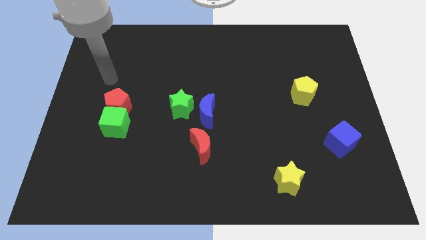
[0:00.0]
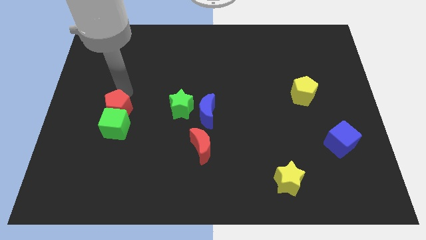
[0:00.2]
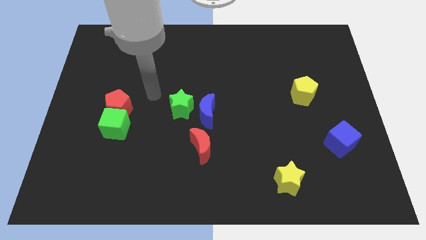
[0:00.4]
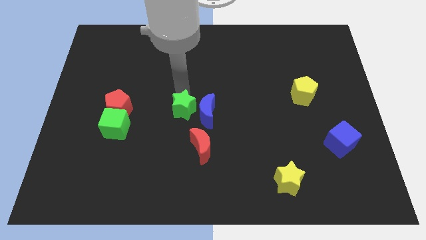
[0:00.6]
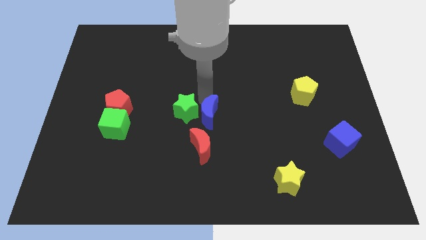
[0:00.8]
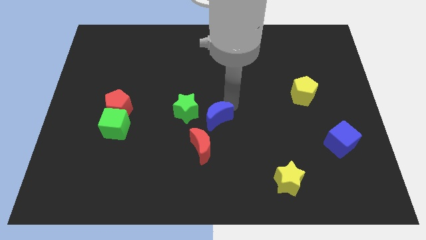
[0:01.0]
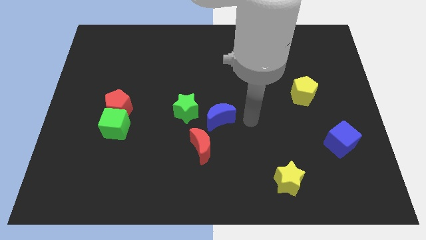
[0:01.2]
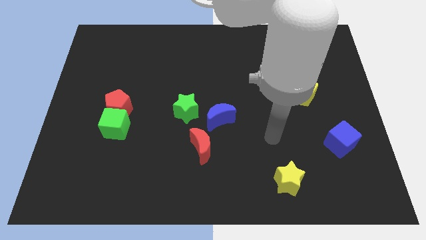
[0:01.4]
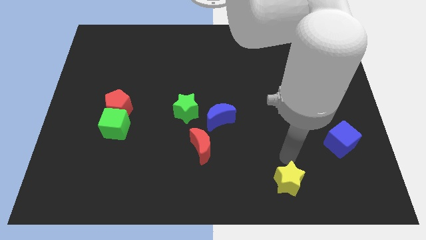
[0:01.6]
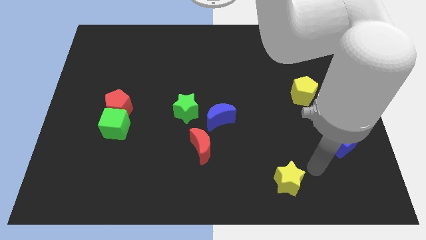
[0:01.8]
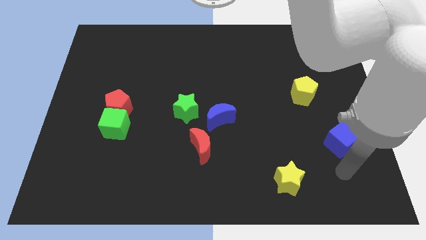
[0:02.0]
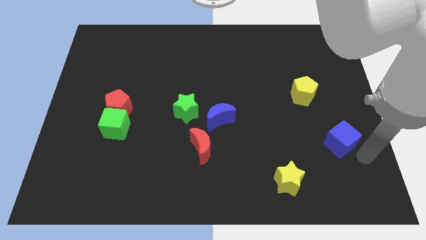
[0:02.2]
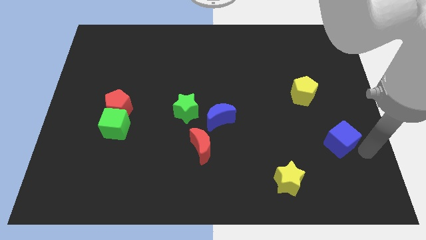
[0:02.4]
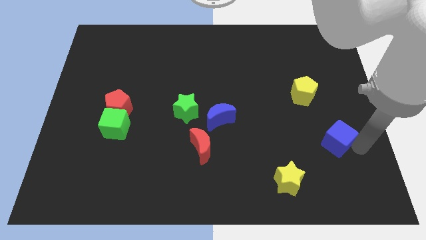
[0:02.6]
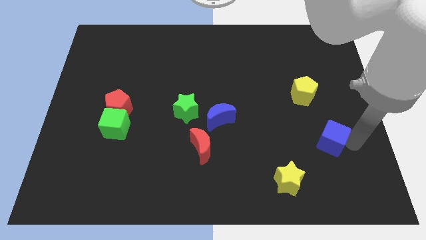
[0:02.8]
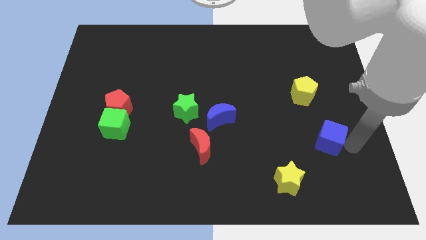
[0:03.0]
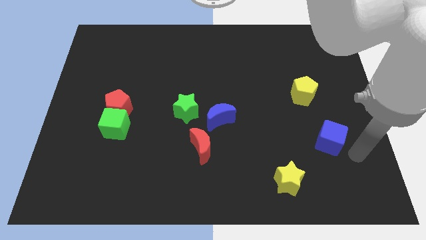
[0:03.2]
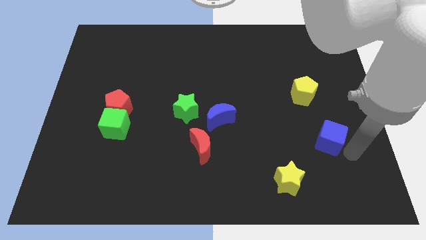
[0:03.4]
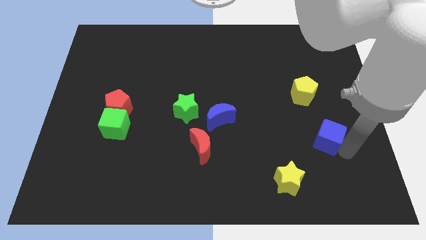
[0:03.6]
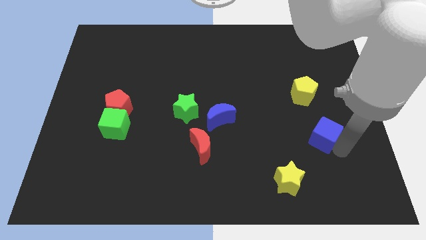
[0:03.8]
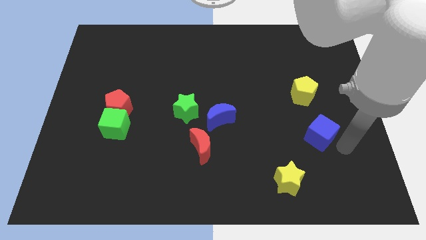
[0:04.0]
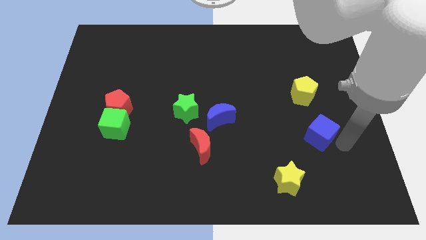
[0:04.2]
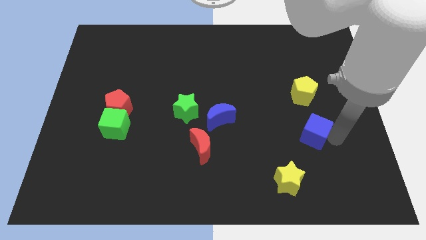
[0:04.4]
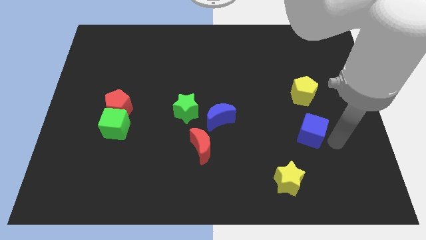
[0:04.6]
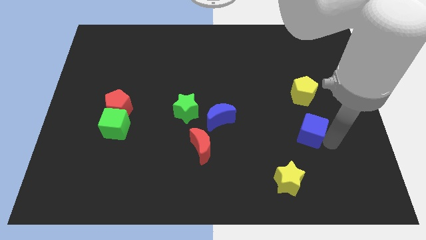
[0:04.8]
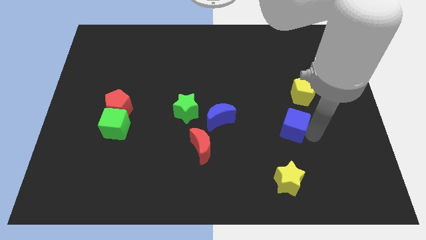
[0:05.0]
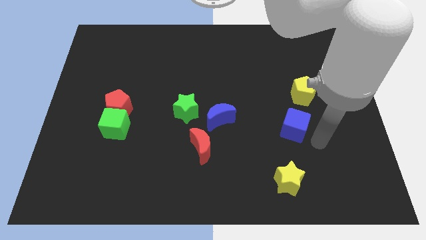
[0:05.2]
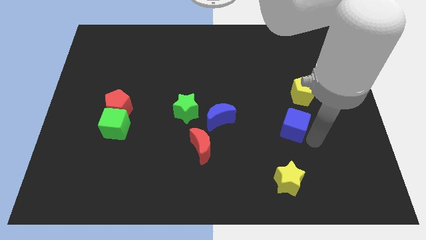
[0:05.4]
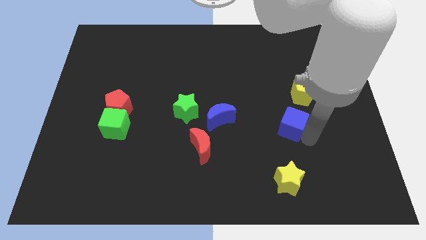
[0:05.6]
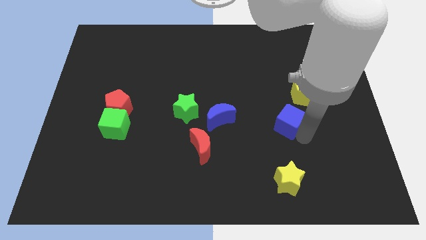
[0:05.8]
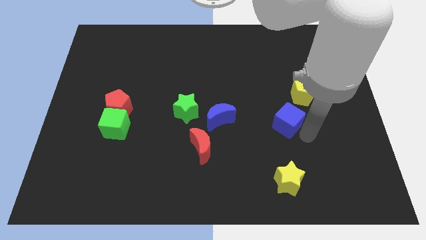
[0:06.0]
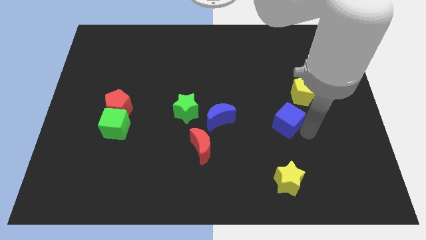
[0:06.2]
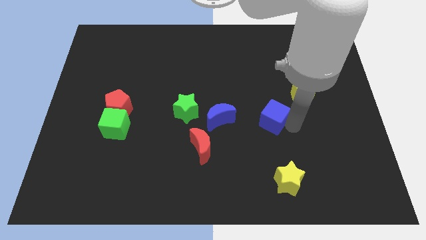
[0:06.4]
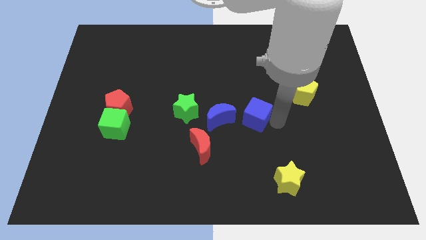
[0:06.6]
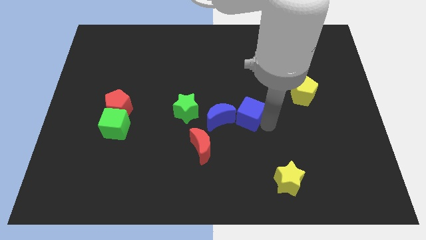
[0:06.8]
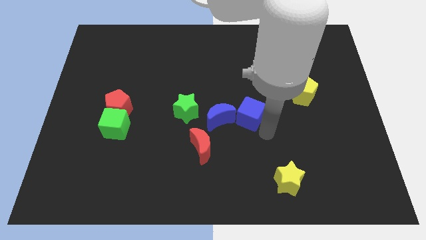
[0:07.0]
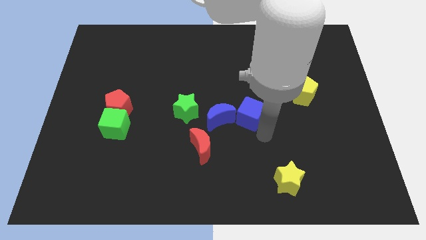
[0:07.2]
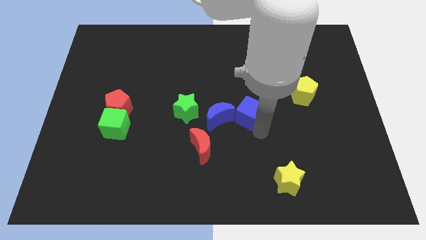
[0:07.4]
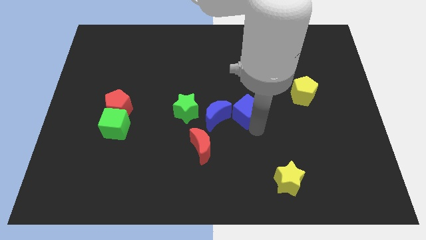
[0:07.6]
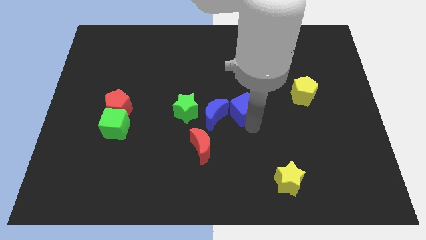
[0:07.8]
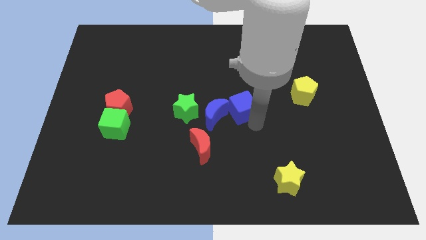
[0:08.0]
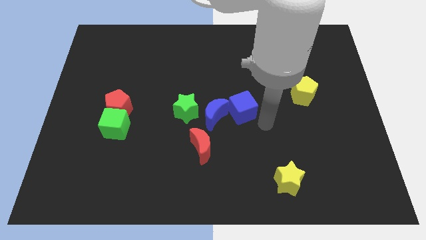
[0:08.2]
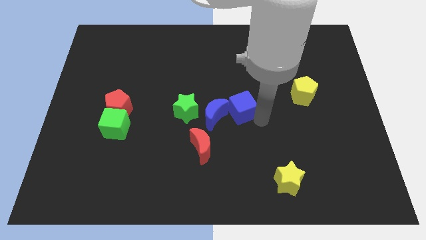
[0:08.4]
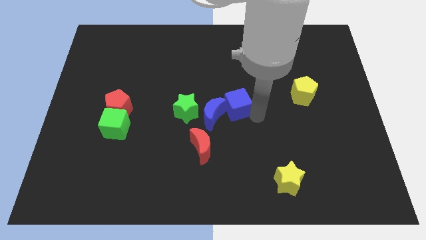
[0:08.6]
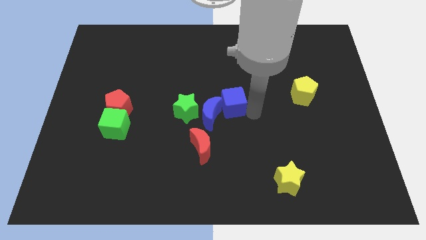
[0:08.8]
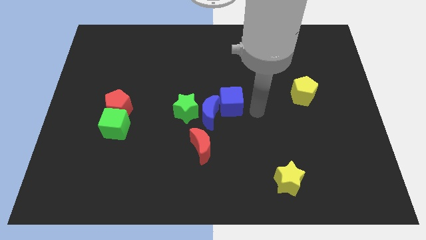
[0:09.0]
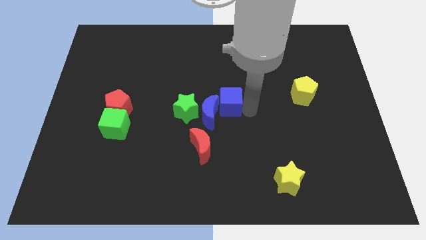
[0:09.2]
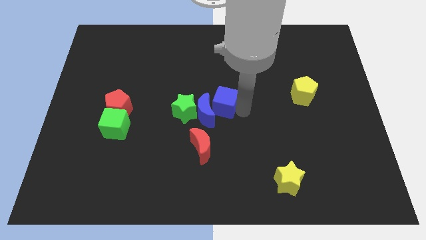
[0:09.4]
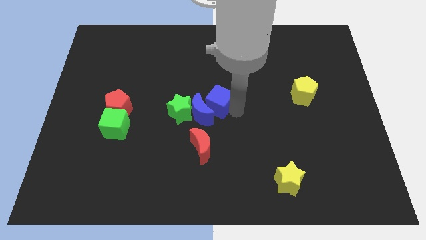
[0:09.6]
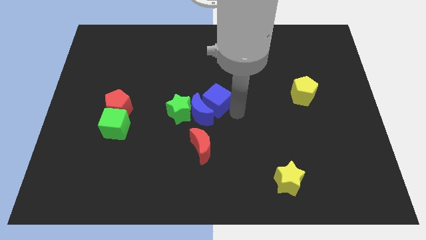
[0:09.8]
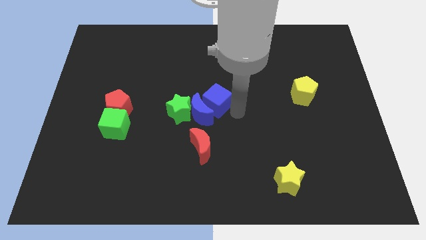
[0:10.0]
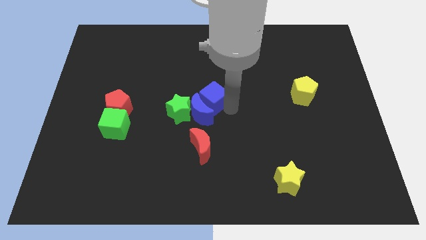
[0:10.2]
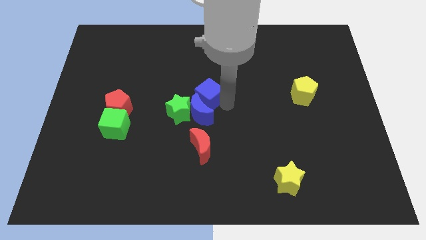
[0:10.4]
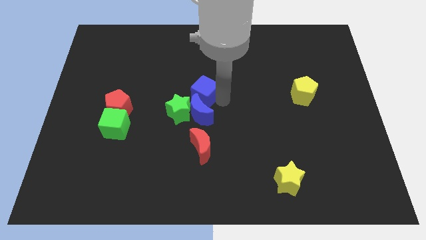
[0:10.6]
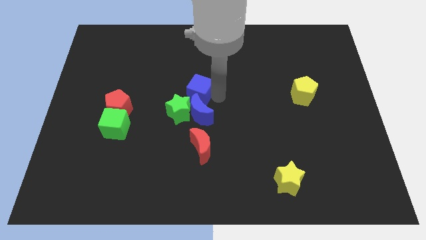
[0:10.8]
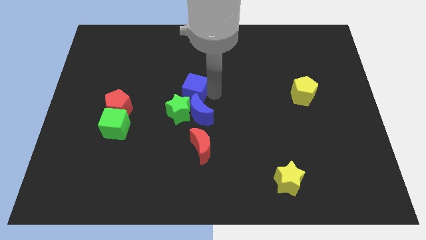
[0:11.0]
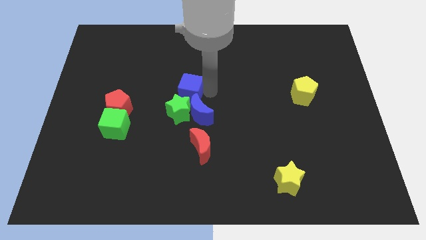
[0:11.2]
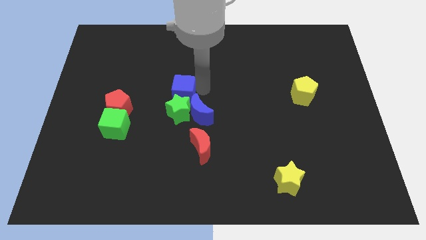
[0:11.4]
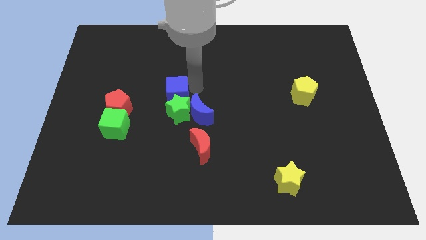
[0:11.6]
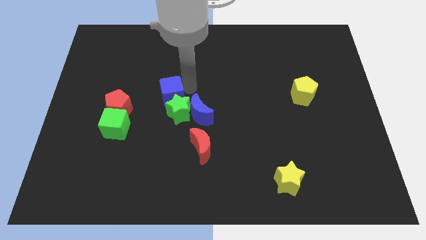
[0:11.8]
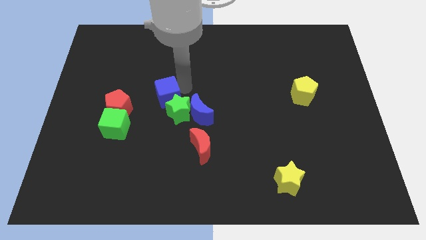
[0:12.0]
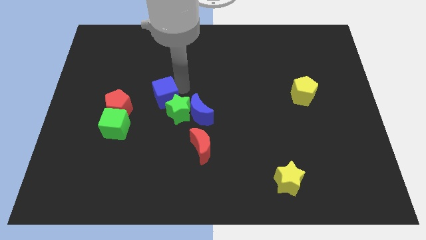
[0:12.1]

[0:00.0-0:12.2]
move the blue cube to the left side of the green star

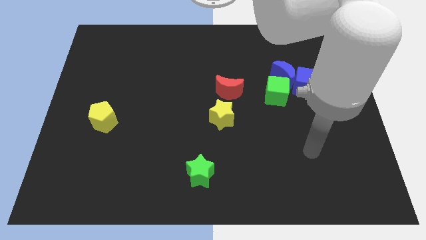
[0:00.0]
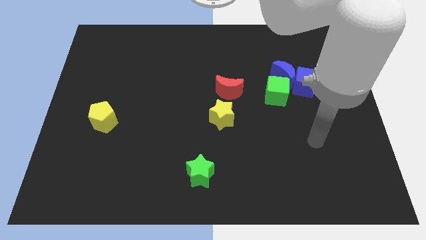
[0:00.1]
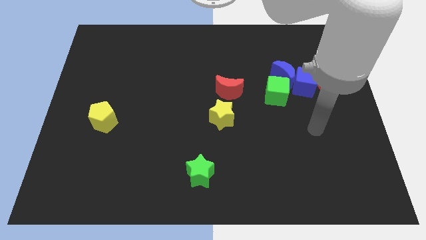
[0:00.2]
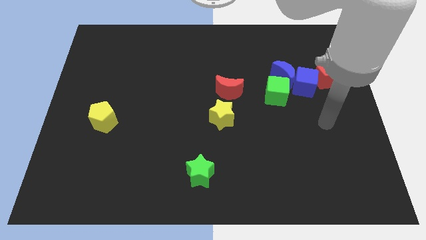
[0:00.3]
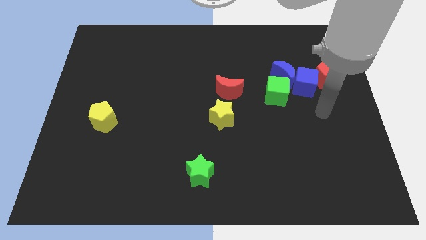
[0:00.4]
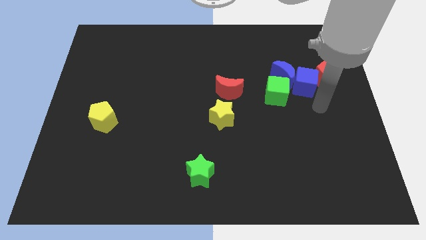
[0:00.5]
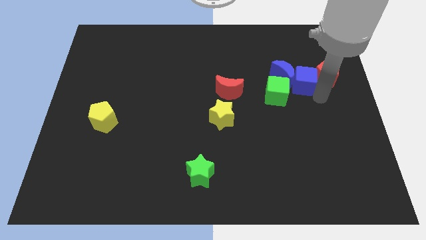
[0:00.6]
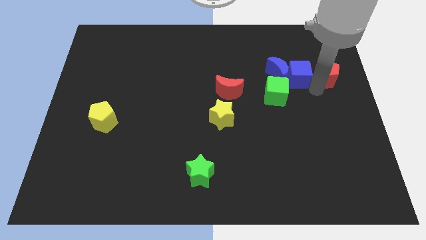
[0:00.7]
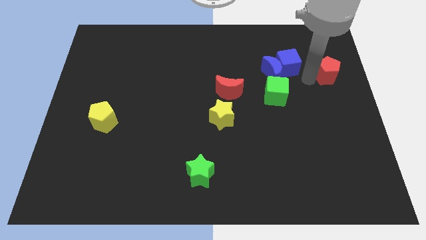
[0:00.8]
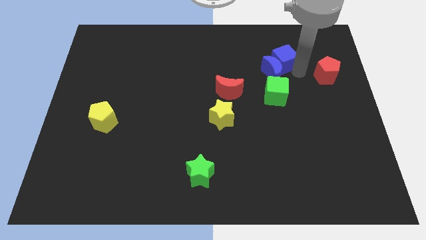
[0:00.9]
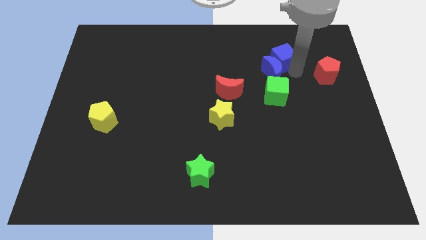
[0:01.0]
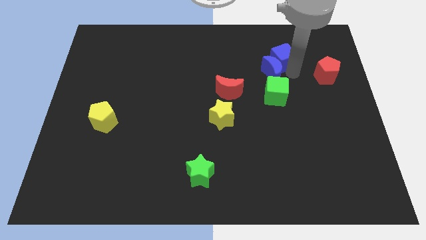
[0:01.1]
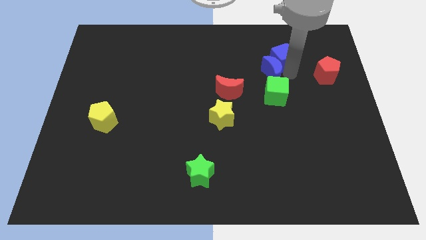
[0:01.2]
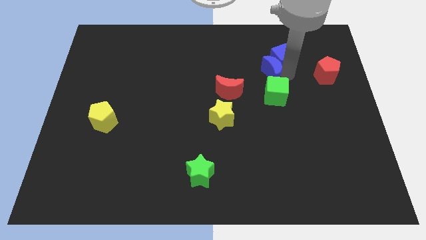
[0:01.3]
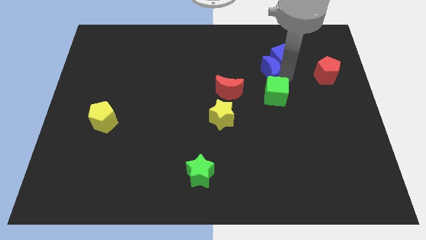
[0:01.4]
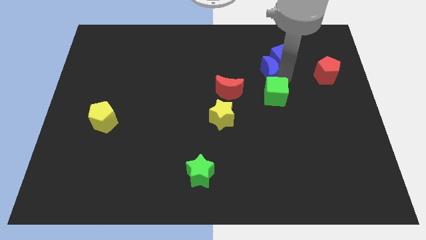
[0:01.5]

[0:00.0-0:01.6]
move the blue moon to the top right side of the red moon

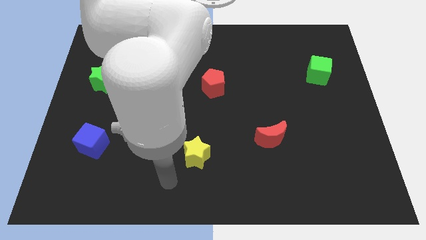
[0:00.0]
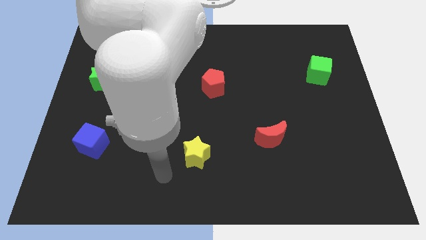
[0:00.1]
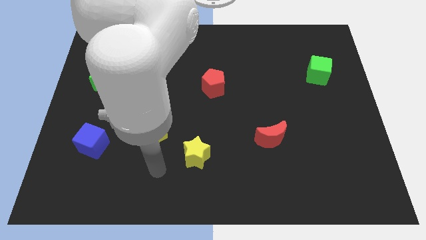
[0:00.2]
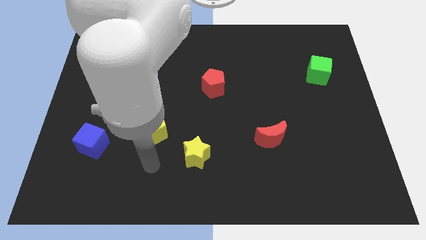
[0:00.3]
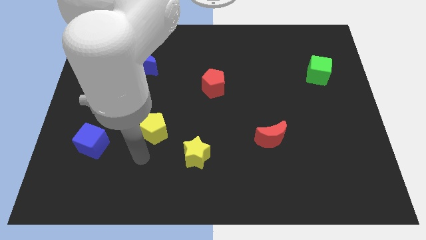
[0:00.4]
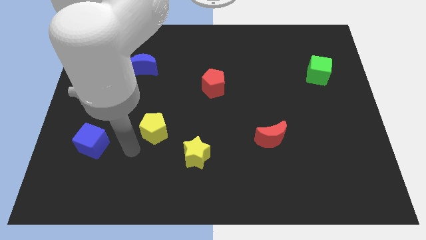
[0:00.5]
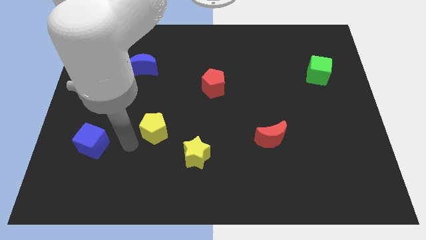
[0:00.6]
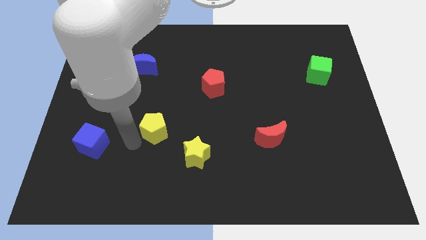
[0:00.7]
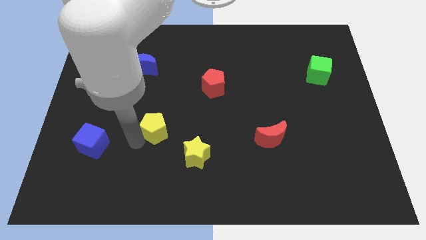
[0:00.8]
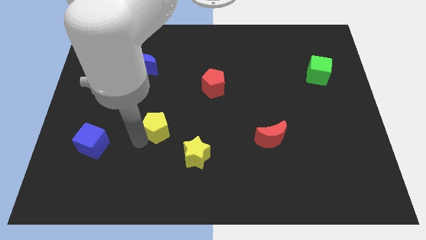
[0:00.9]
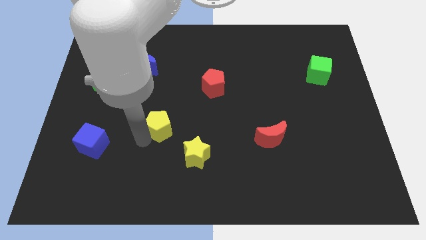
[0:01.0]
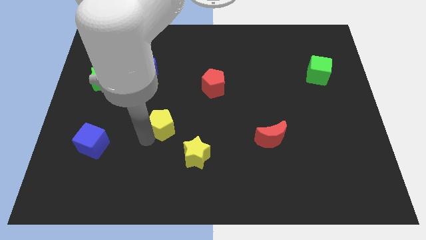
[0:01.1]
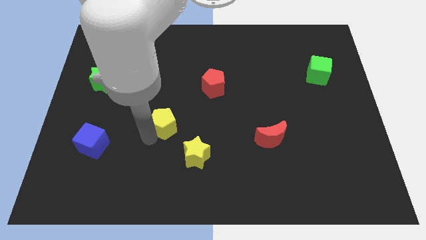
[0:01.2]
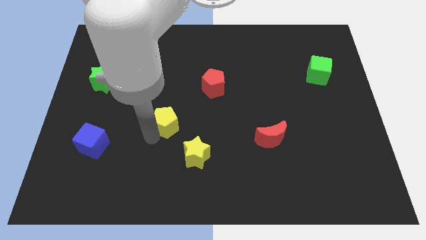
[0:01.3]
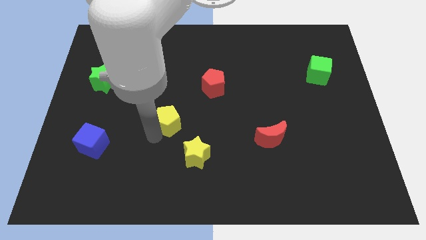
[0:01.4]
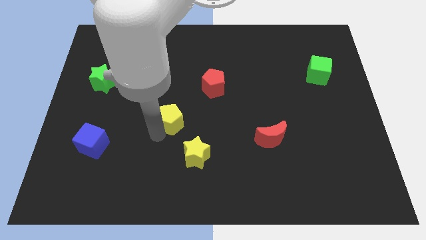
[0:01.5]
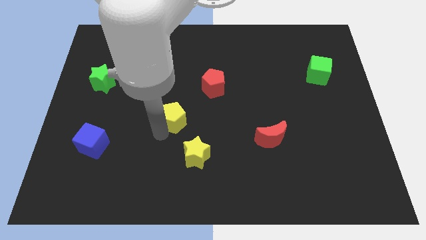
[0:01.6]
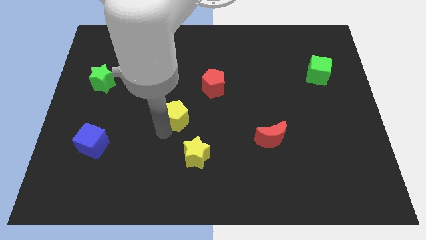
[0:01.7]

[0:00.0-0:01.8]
move the yellow pentagon to the bottom left of the red pentagon
